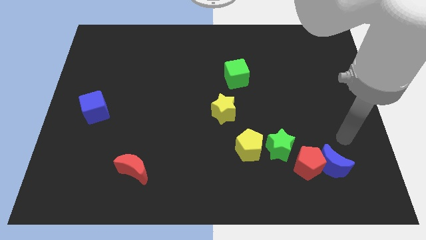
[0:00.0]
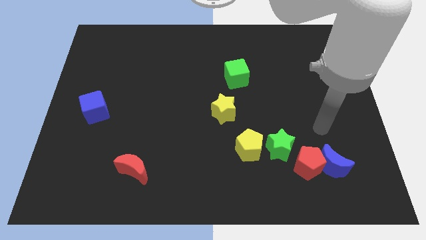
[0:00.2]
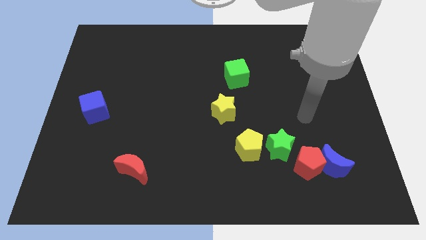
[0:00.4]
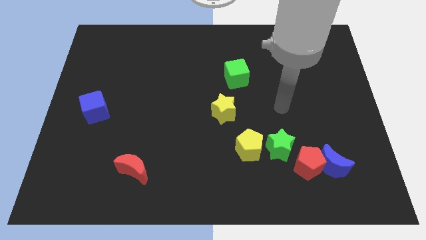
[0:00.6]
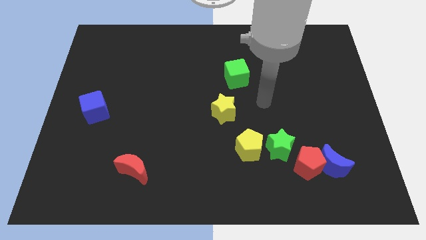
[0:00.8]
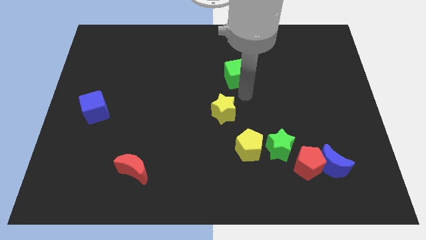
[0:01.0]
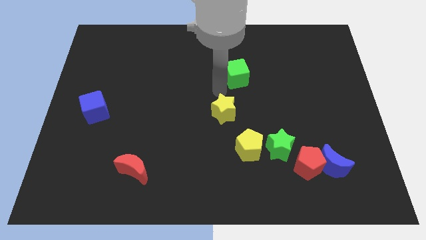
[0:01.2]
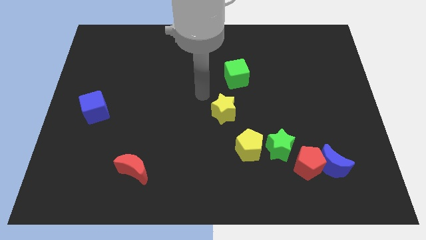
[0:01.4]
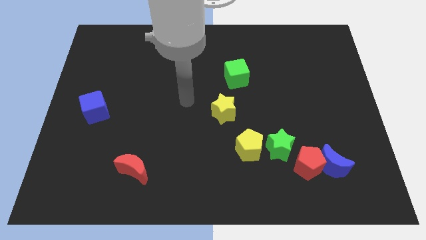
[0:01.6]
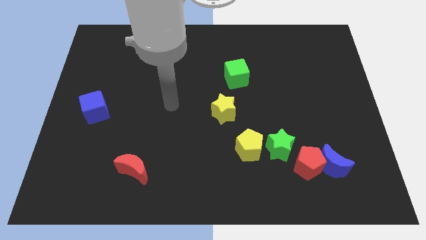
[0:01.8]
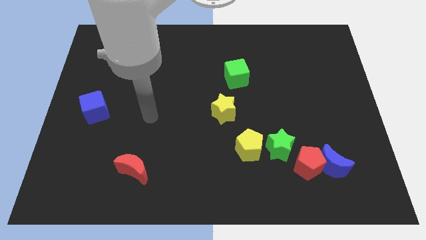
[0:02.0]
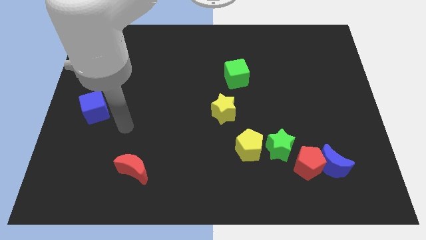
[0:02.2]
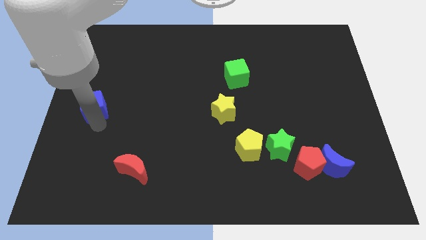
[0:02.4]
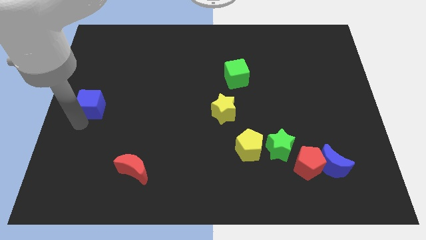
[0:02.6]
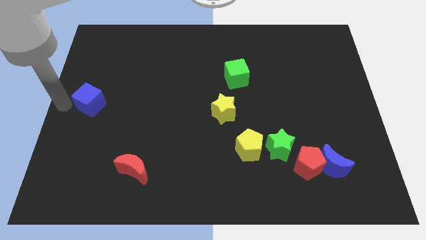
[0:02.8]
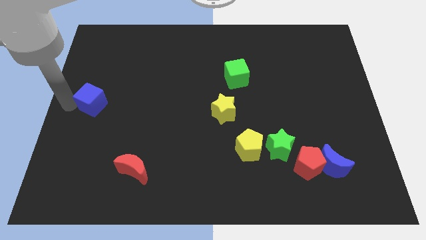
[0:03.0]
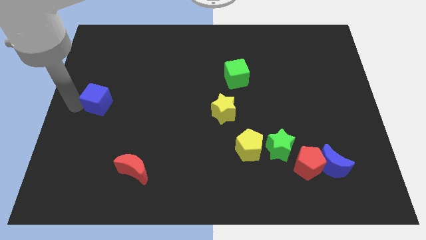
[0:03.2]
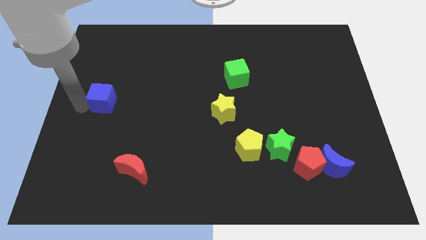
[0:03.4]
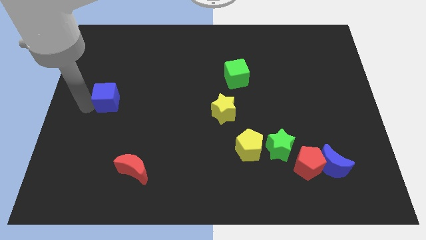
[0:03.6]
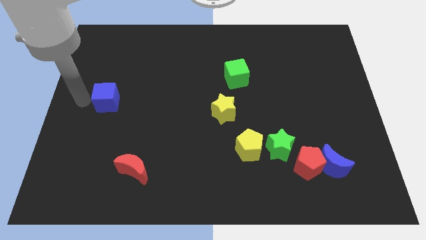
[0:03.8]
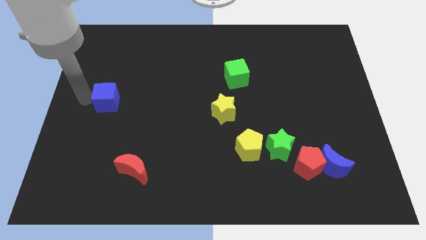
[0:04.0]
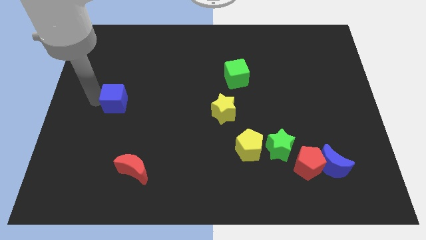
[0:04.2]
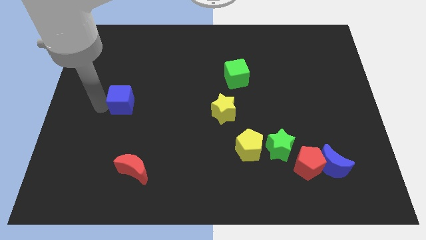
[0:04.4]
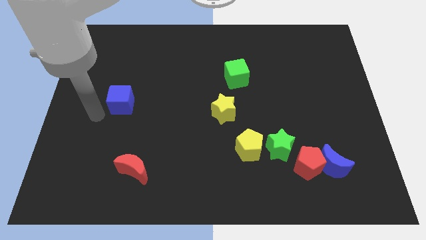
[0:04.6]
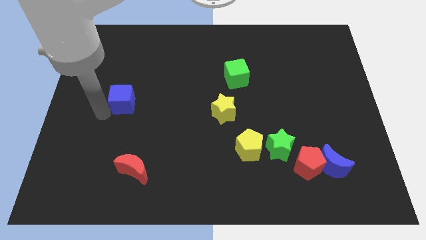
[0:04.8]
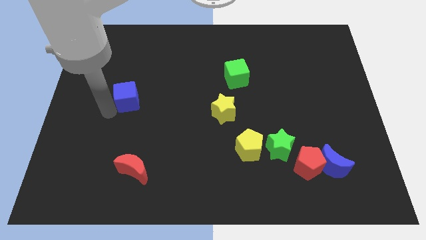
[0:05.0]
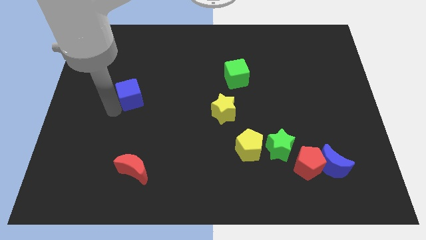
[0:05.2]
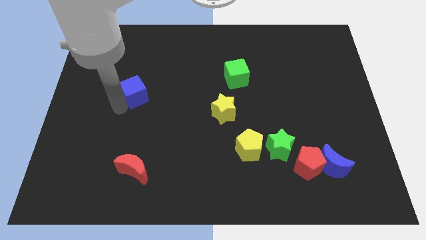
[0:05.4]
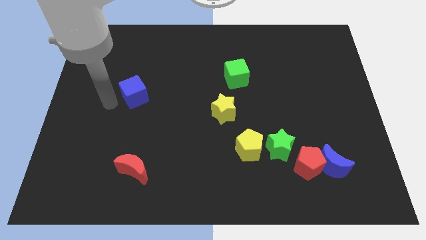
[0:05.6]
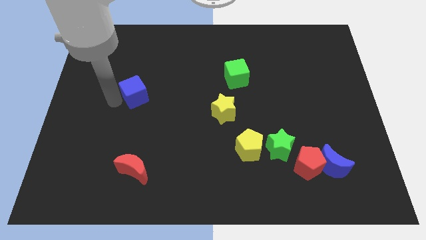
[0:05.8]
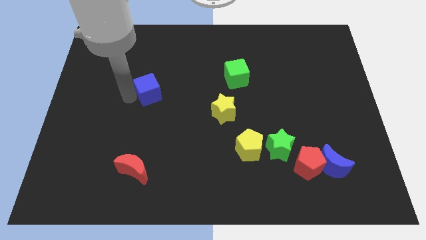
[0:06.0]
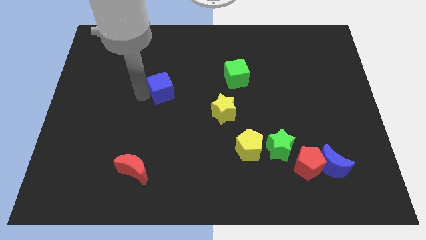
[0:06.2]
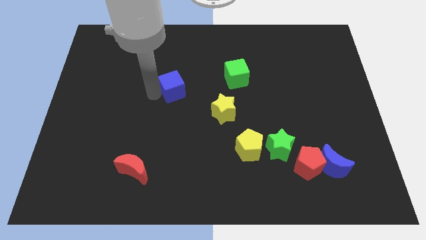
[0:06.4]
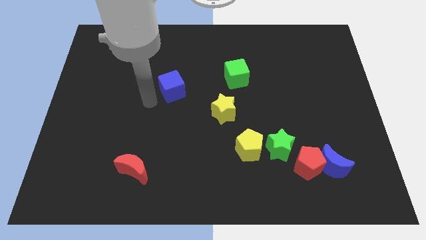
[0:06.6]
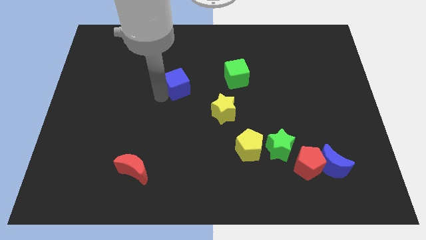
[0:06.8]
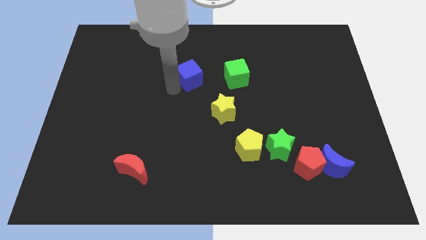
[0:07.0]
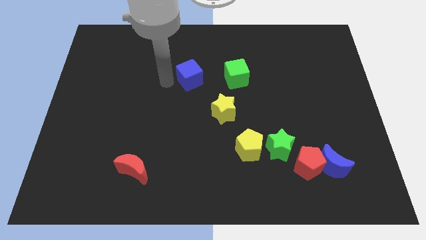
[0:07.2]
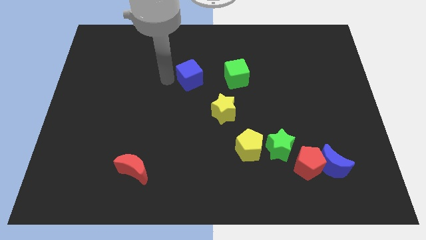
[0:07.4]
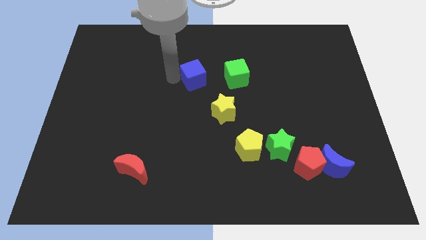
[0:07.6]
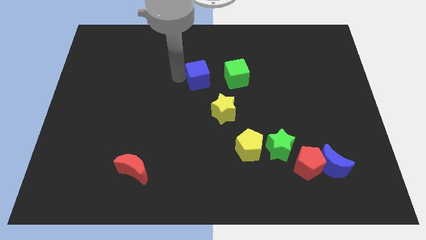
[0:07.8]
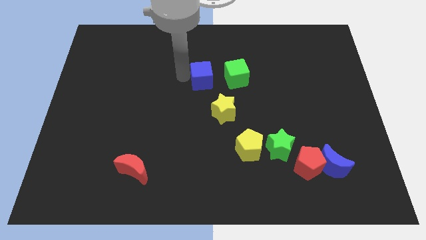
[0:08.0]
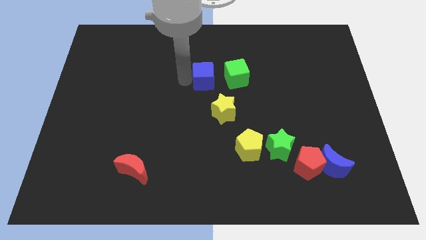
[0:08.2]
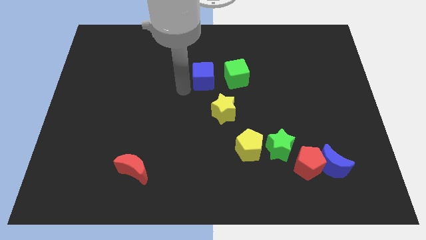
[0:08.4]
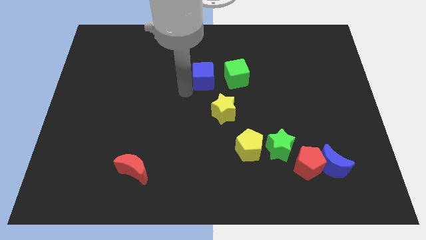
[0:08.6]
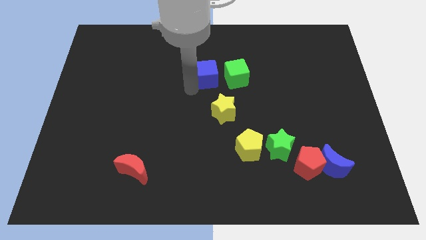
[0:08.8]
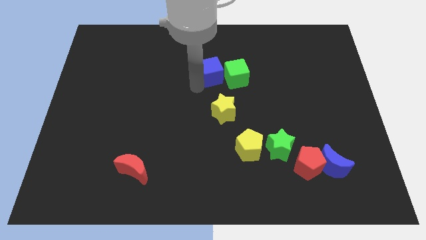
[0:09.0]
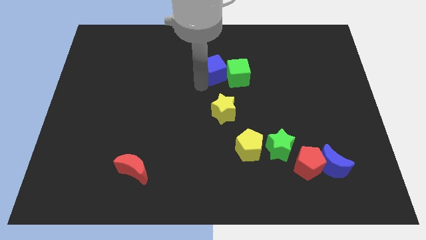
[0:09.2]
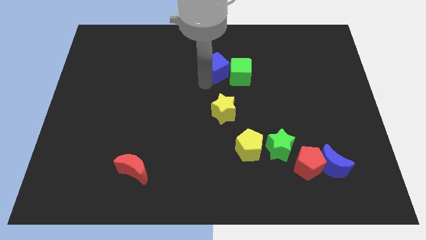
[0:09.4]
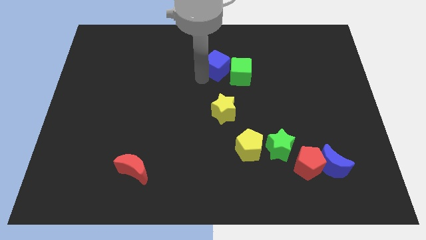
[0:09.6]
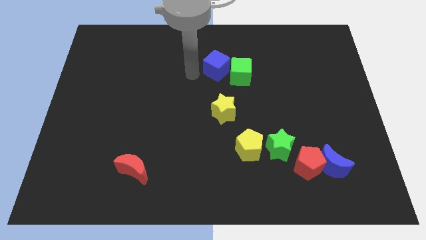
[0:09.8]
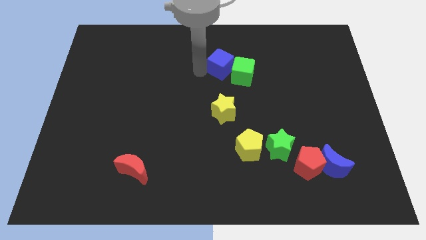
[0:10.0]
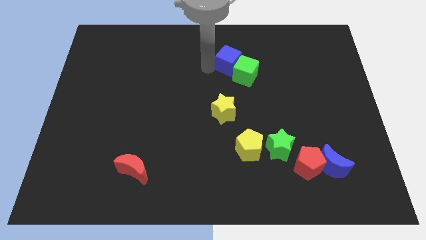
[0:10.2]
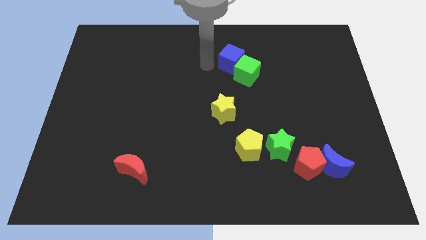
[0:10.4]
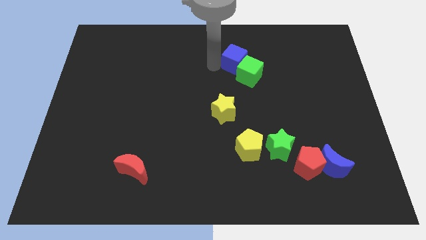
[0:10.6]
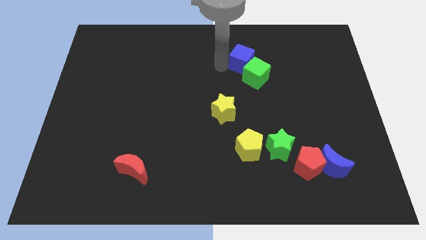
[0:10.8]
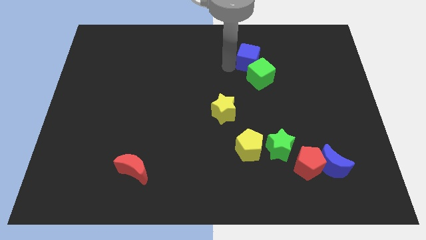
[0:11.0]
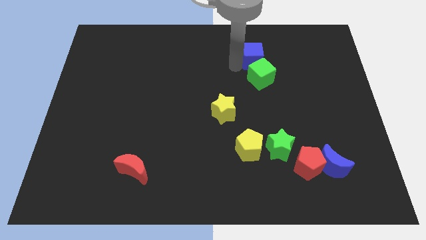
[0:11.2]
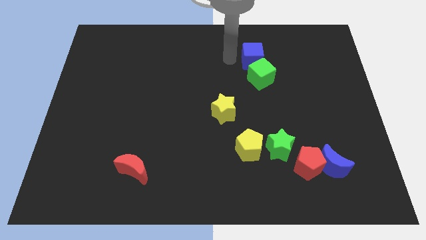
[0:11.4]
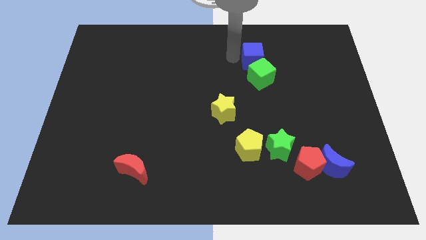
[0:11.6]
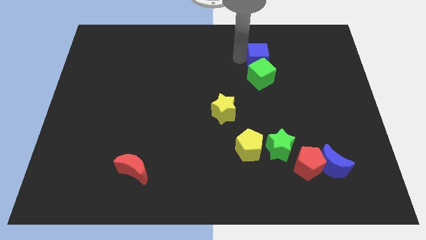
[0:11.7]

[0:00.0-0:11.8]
move the blue cube to the top right side of the green cube

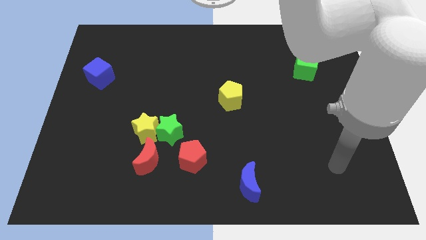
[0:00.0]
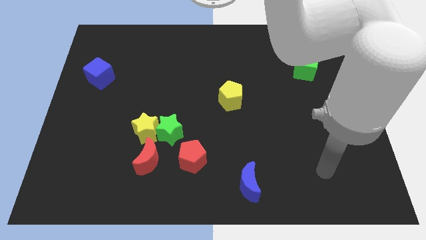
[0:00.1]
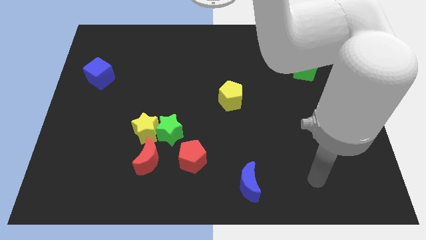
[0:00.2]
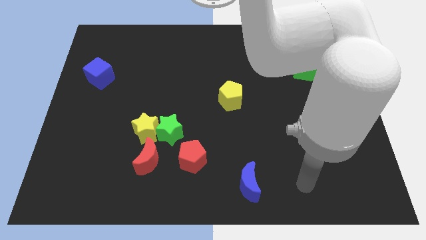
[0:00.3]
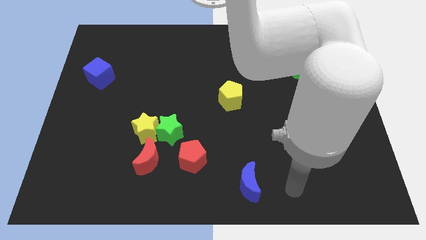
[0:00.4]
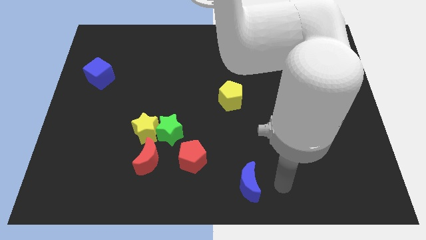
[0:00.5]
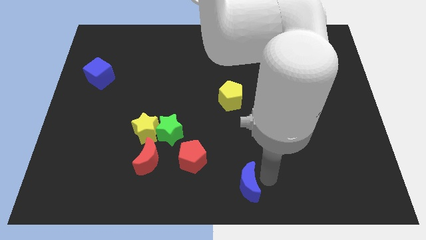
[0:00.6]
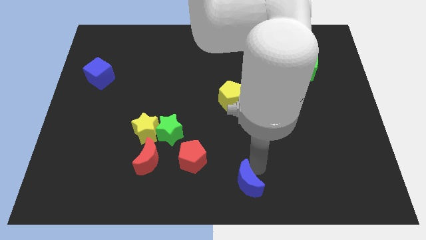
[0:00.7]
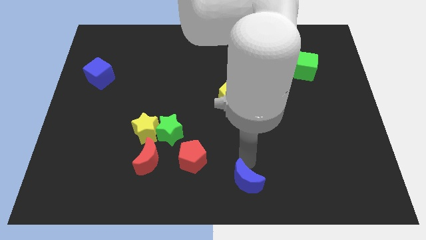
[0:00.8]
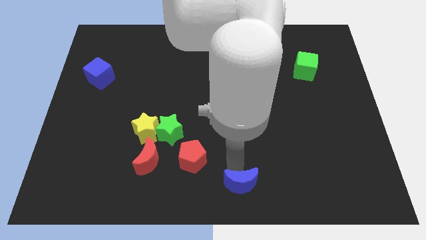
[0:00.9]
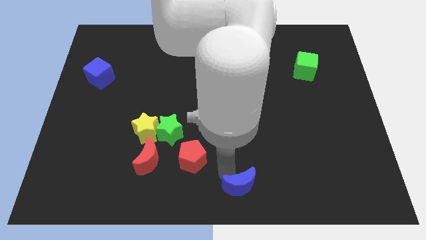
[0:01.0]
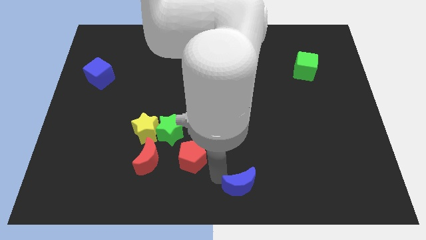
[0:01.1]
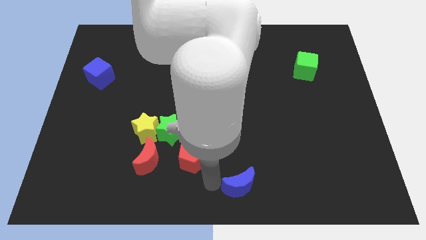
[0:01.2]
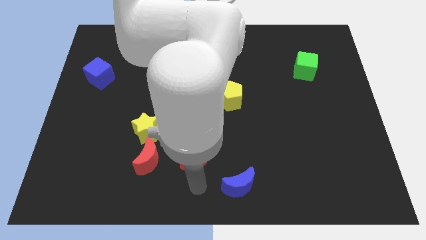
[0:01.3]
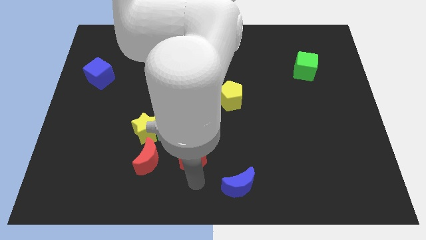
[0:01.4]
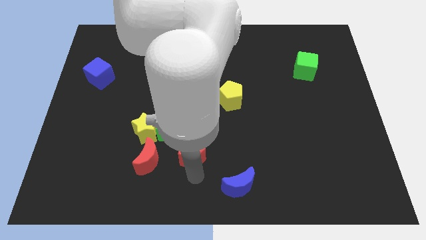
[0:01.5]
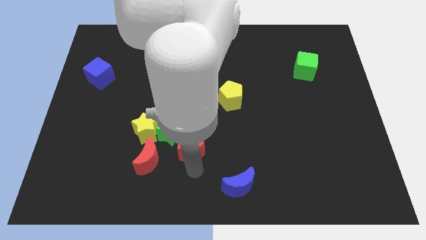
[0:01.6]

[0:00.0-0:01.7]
move the red pentagon diagonally up and to the right of the red moon

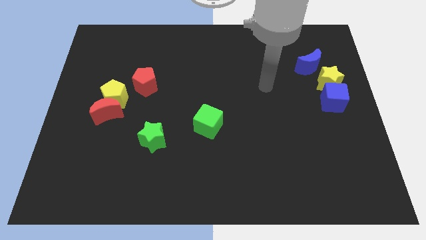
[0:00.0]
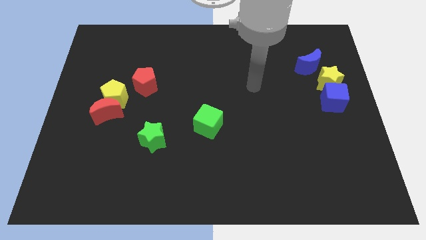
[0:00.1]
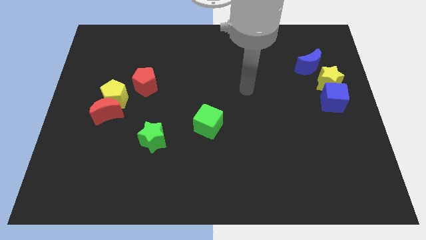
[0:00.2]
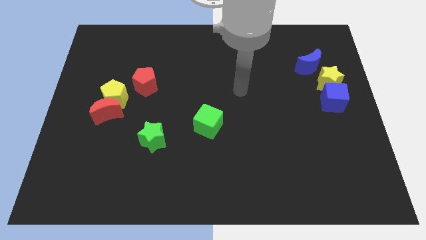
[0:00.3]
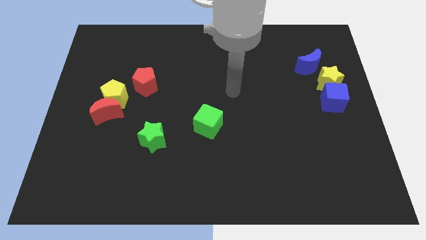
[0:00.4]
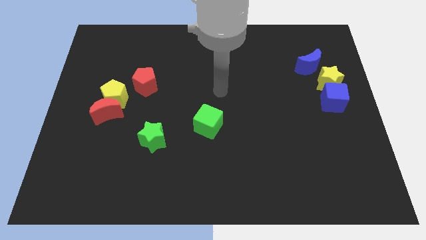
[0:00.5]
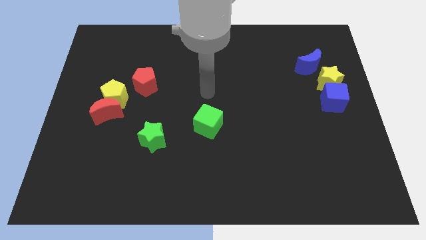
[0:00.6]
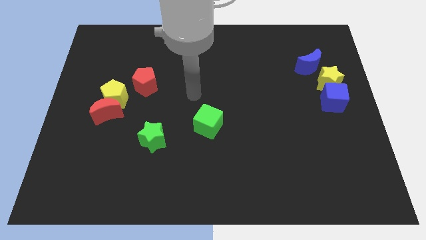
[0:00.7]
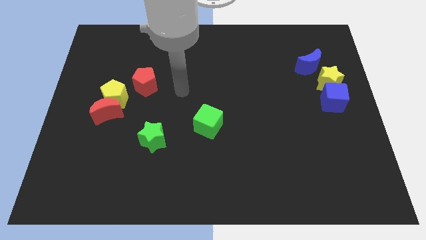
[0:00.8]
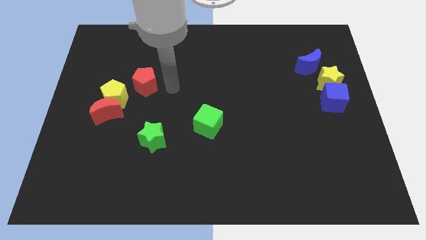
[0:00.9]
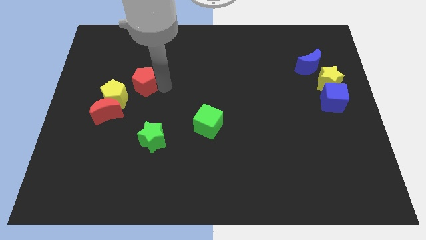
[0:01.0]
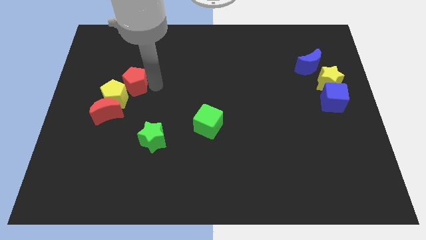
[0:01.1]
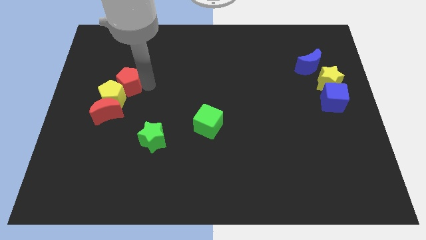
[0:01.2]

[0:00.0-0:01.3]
put the red pentagon to the top side of the red moon
